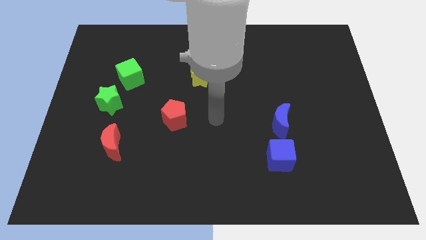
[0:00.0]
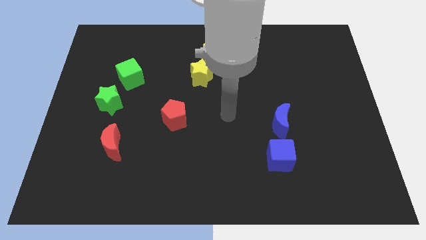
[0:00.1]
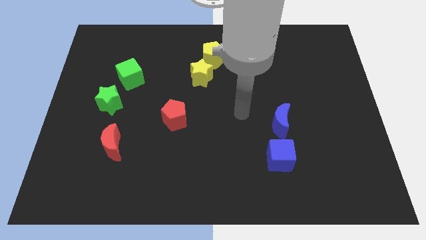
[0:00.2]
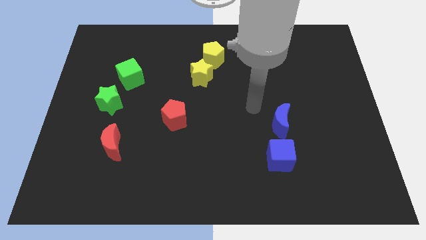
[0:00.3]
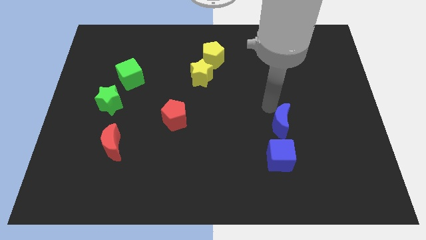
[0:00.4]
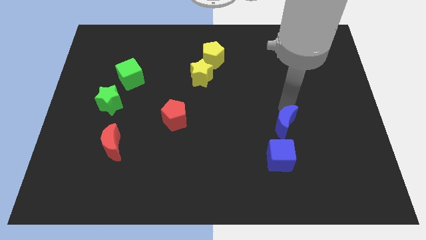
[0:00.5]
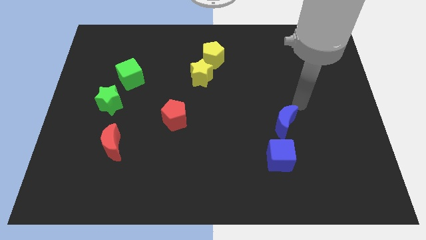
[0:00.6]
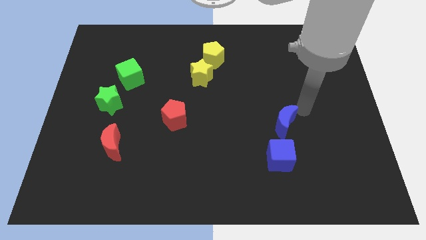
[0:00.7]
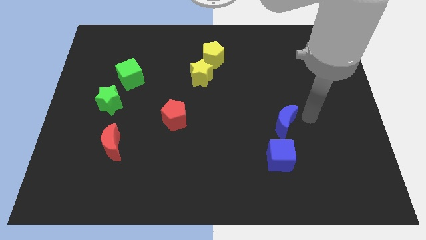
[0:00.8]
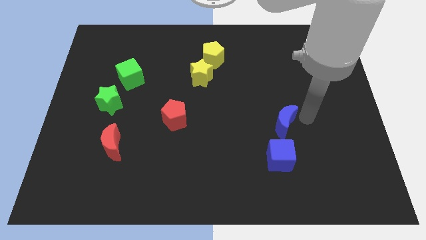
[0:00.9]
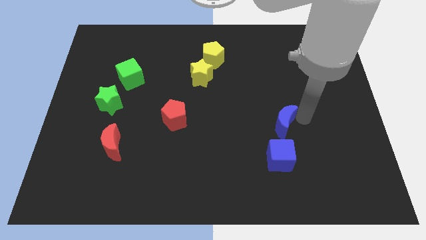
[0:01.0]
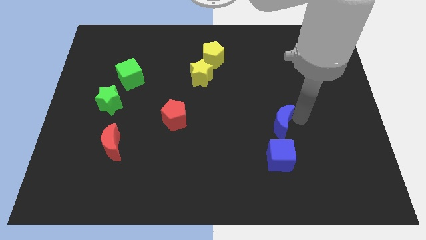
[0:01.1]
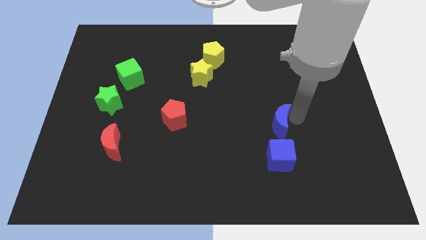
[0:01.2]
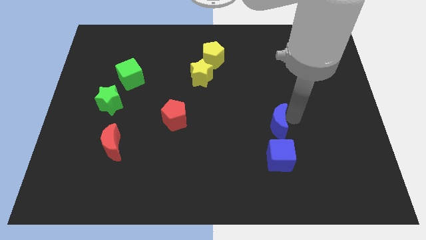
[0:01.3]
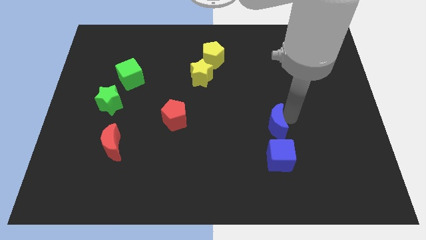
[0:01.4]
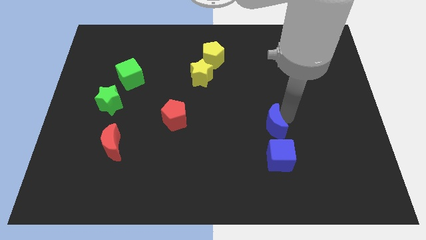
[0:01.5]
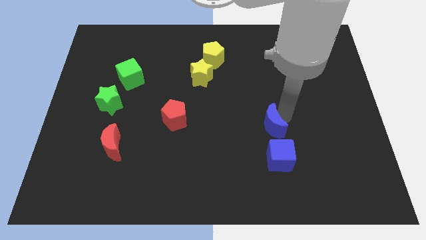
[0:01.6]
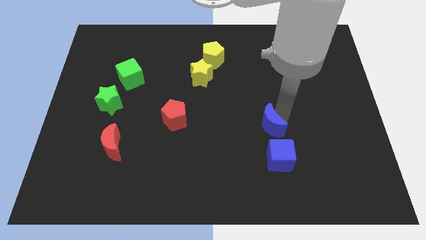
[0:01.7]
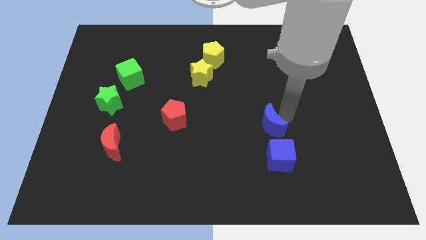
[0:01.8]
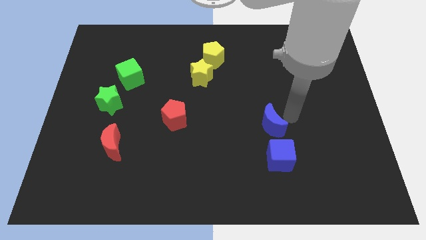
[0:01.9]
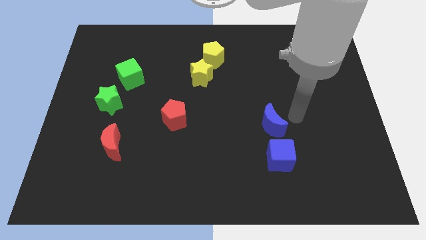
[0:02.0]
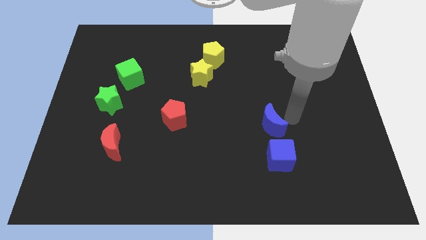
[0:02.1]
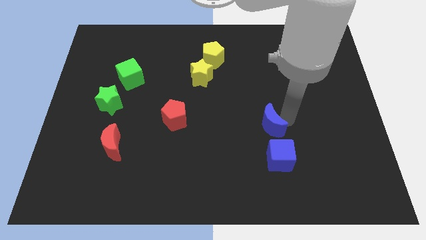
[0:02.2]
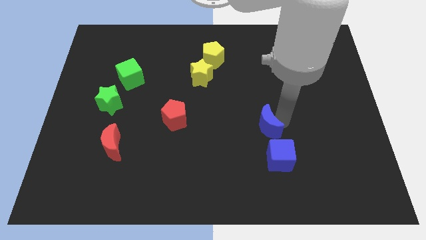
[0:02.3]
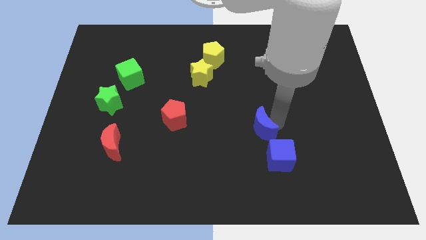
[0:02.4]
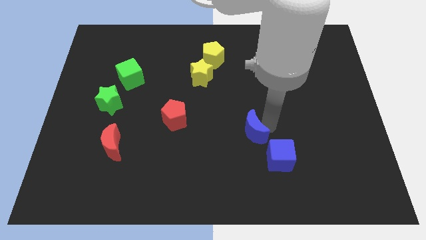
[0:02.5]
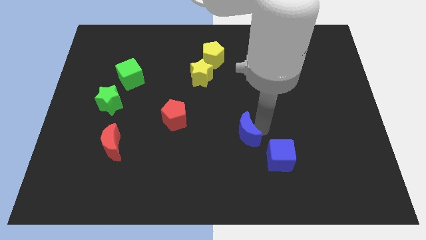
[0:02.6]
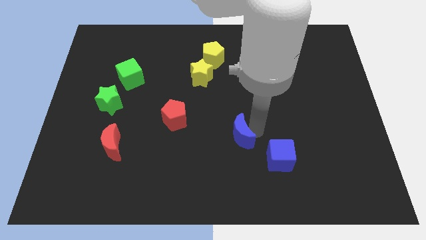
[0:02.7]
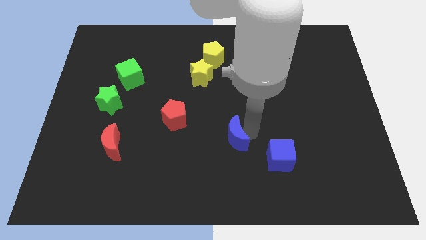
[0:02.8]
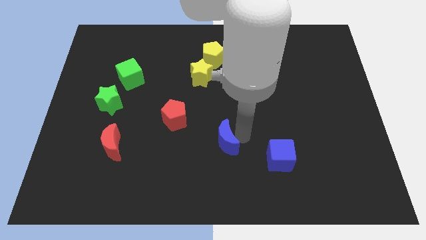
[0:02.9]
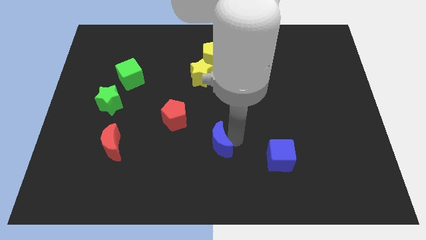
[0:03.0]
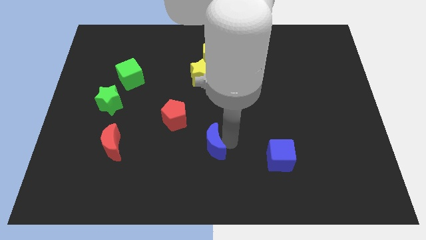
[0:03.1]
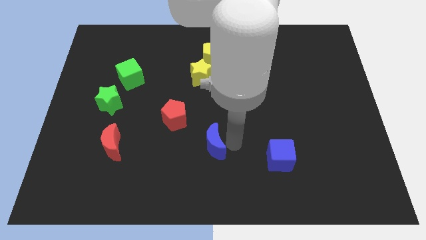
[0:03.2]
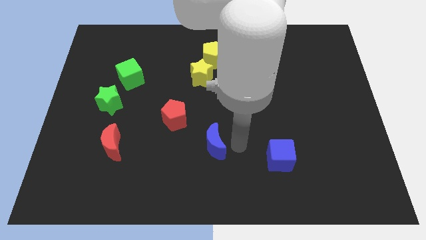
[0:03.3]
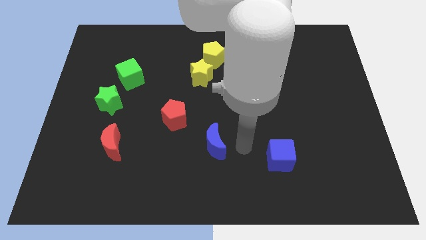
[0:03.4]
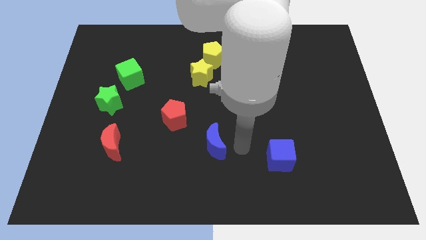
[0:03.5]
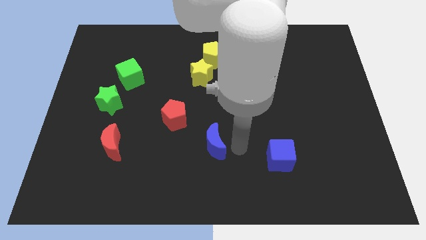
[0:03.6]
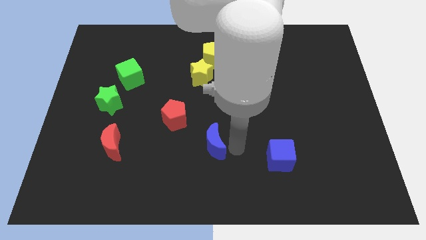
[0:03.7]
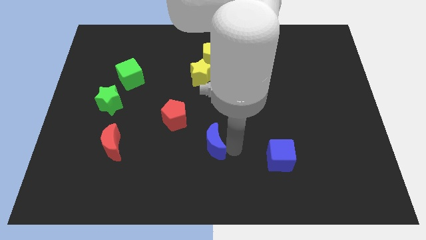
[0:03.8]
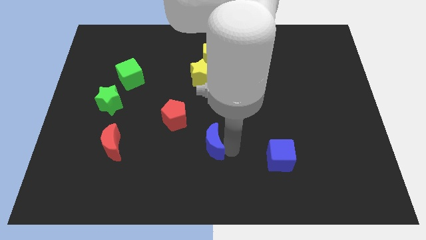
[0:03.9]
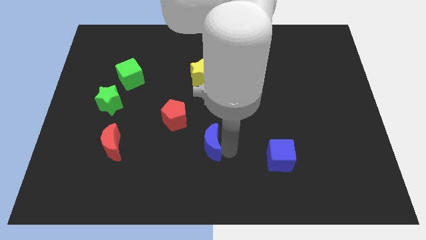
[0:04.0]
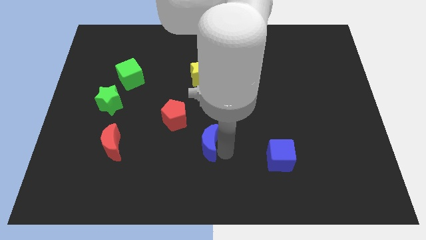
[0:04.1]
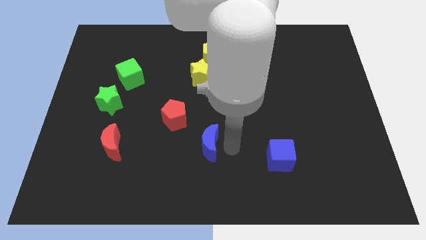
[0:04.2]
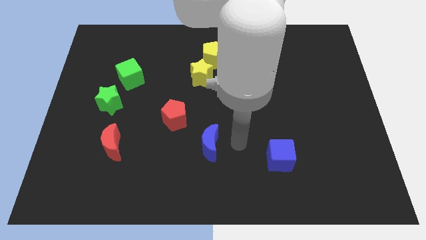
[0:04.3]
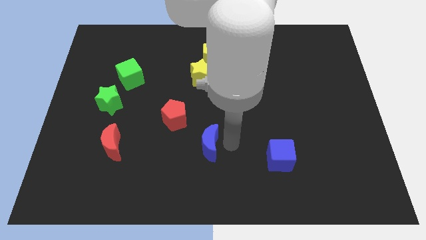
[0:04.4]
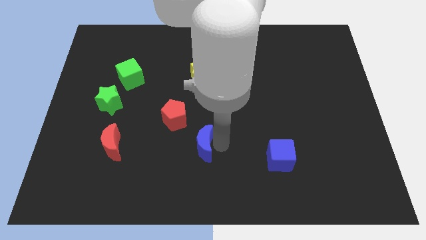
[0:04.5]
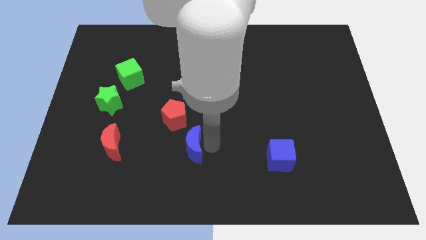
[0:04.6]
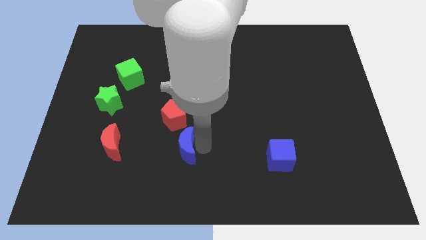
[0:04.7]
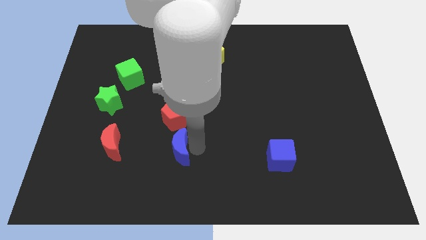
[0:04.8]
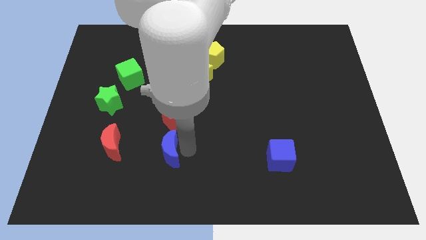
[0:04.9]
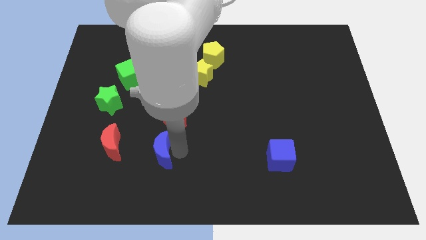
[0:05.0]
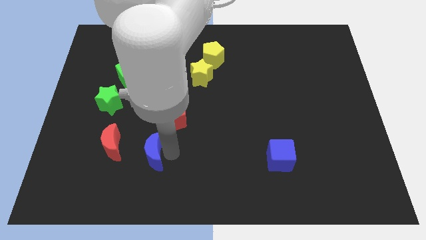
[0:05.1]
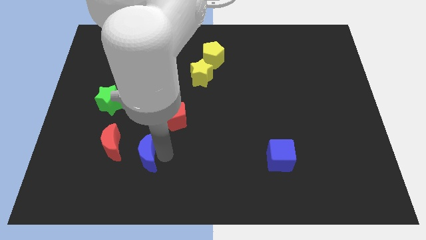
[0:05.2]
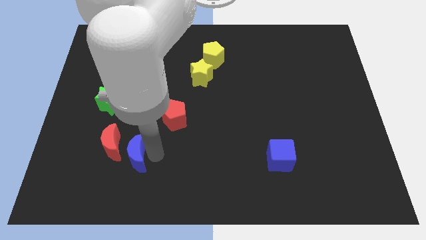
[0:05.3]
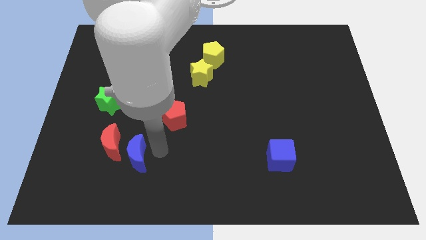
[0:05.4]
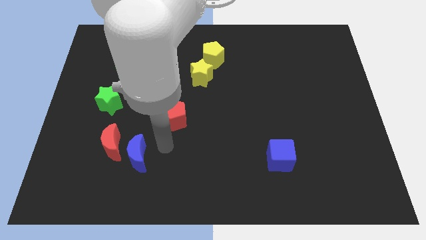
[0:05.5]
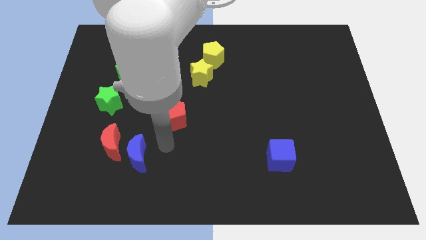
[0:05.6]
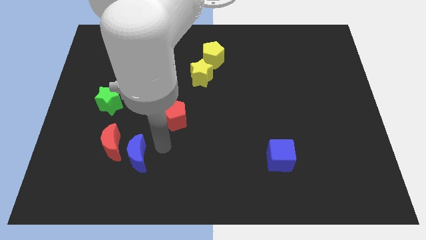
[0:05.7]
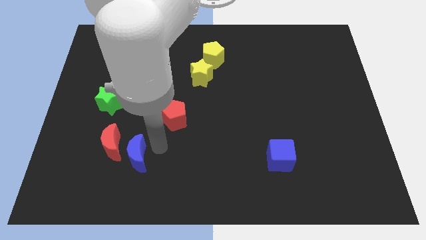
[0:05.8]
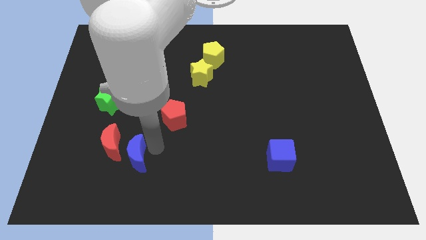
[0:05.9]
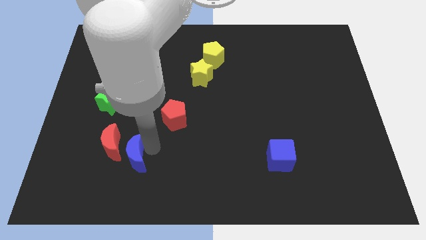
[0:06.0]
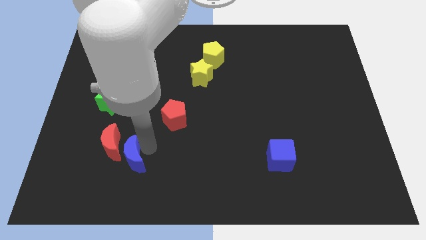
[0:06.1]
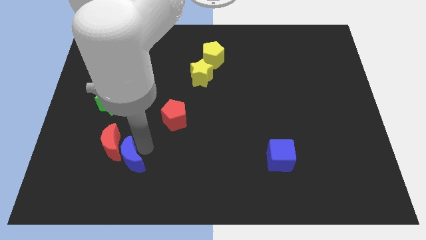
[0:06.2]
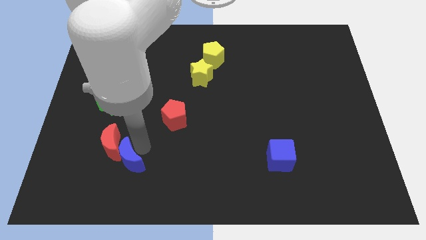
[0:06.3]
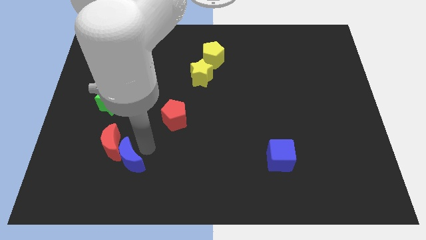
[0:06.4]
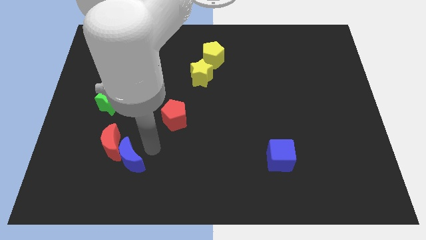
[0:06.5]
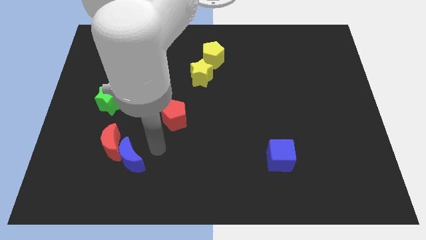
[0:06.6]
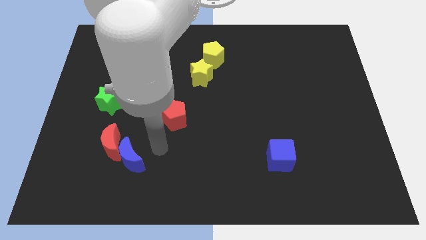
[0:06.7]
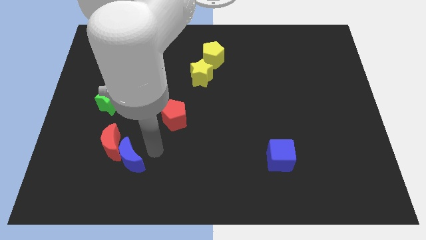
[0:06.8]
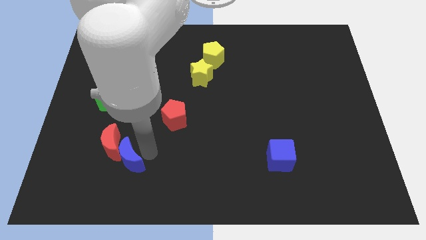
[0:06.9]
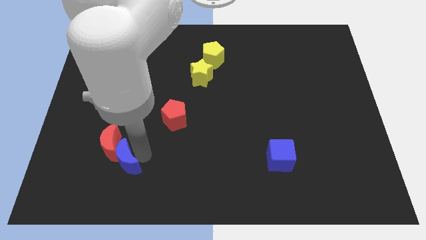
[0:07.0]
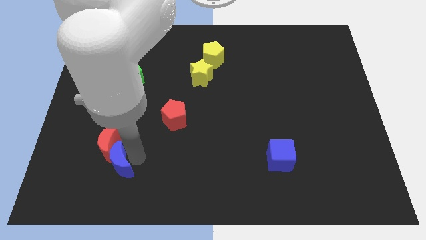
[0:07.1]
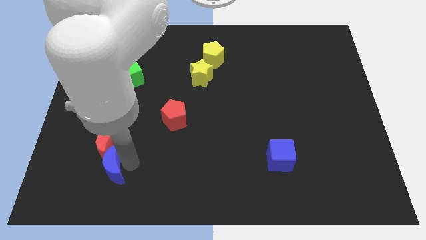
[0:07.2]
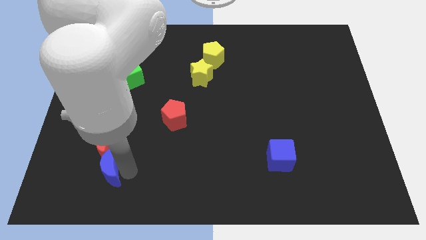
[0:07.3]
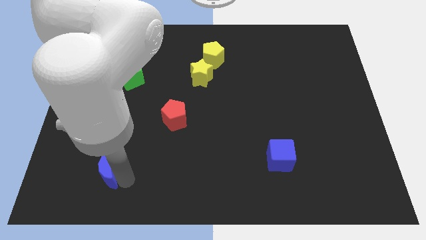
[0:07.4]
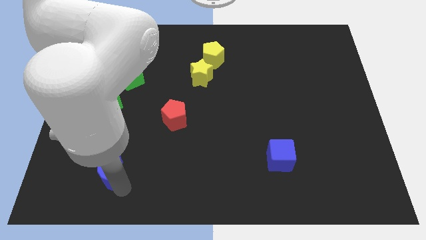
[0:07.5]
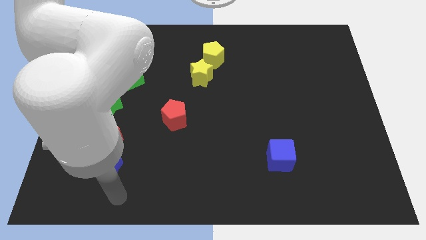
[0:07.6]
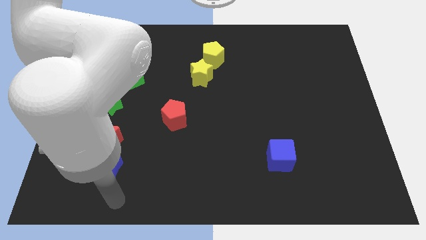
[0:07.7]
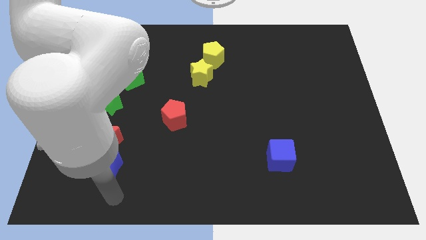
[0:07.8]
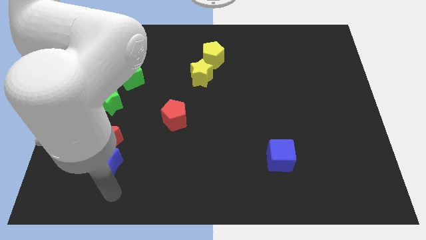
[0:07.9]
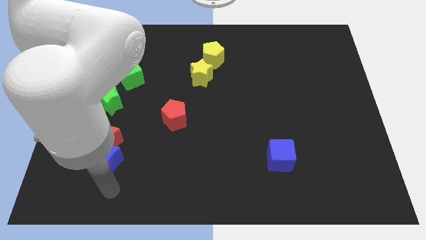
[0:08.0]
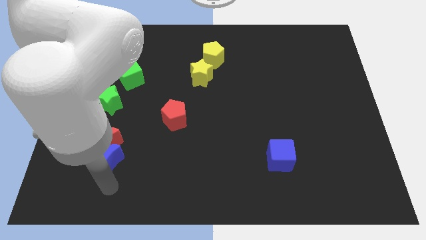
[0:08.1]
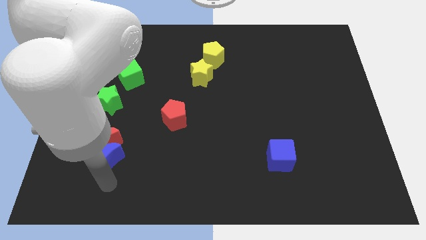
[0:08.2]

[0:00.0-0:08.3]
slide the blue moon to the bottom of the green star
